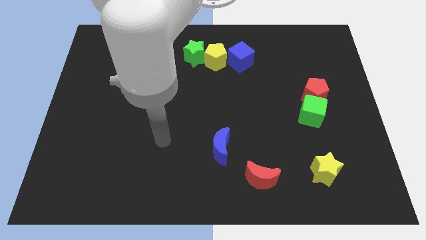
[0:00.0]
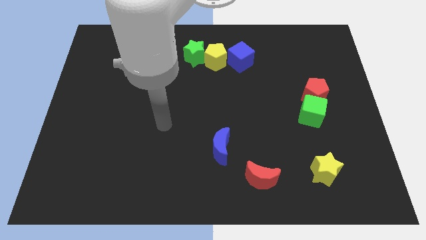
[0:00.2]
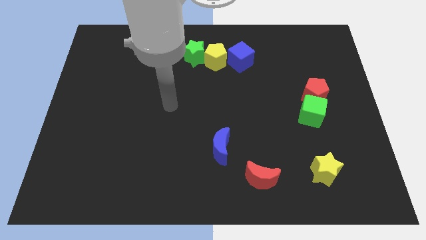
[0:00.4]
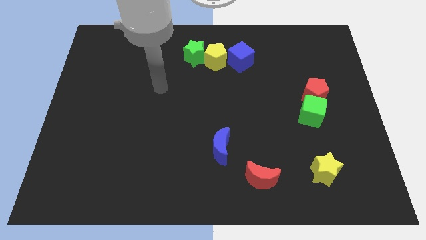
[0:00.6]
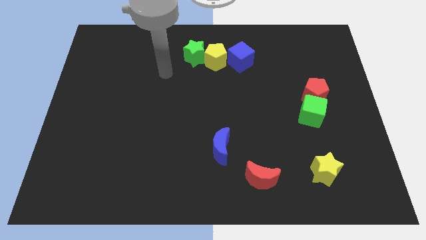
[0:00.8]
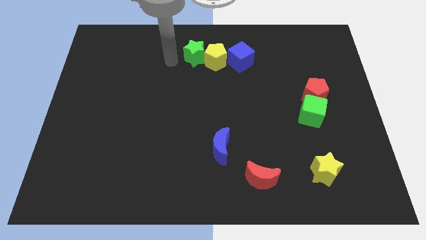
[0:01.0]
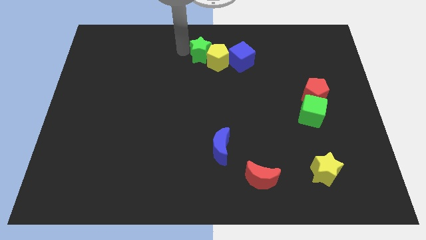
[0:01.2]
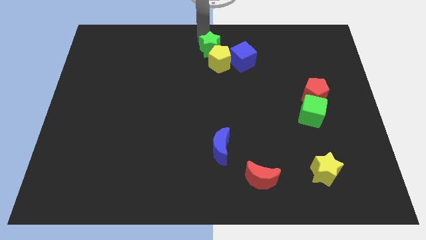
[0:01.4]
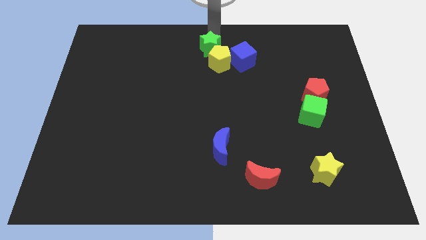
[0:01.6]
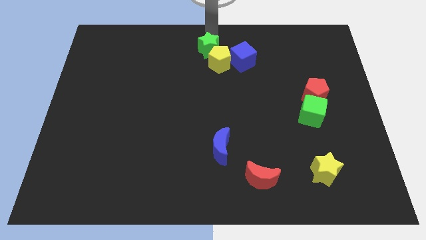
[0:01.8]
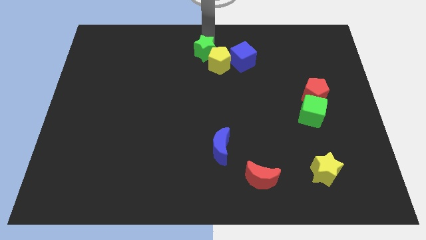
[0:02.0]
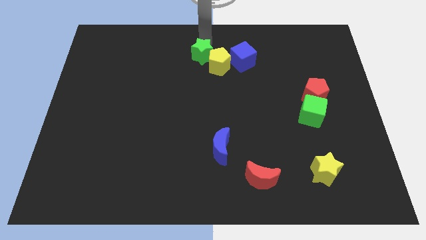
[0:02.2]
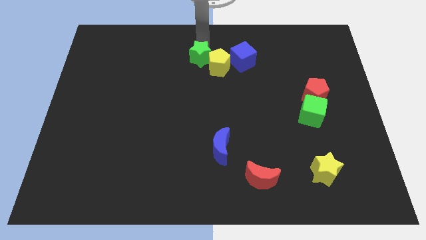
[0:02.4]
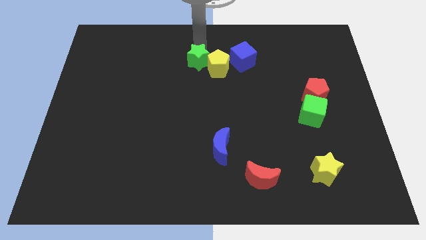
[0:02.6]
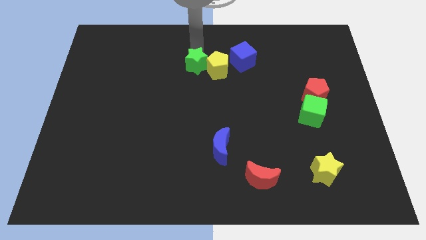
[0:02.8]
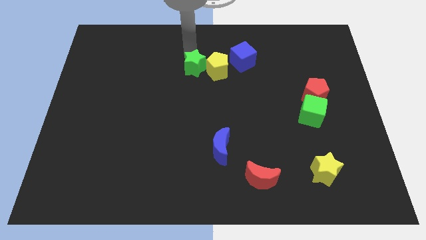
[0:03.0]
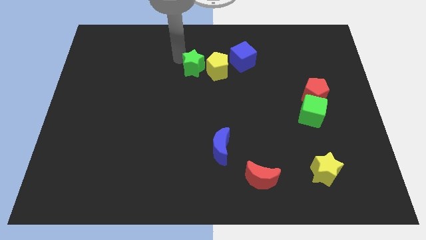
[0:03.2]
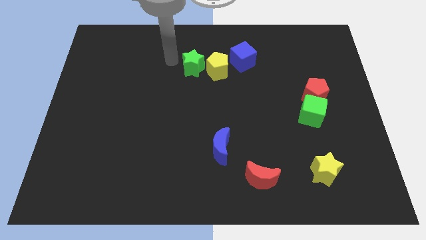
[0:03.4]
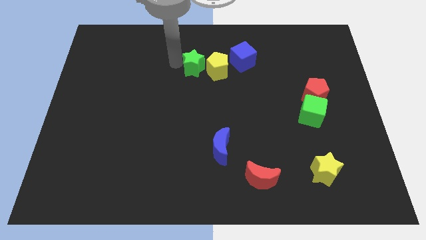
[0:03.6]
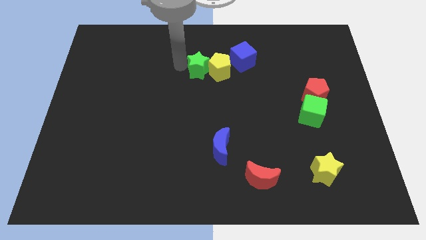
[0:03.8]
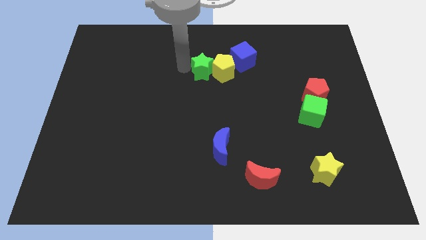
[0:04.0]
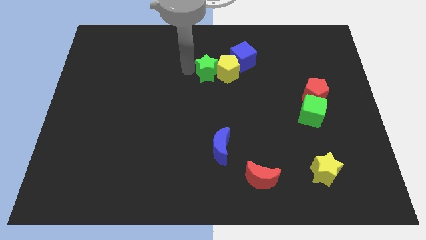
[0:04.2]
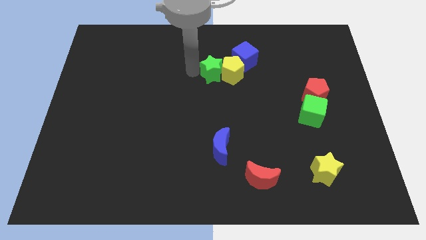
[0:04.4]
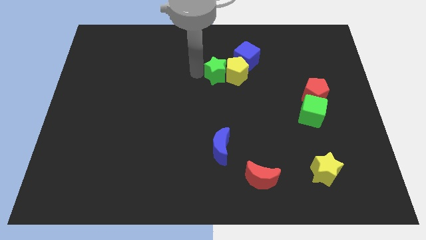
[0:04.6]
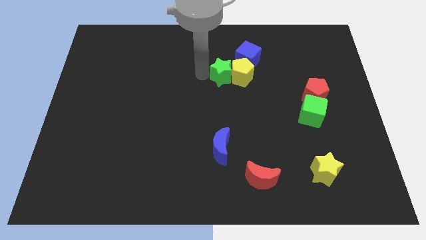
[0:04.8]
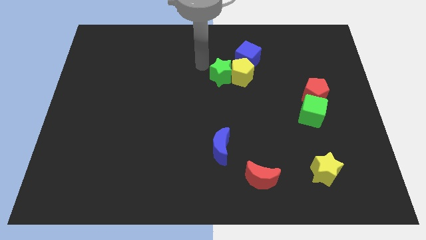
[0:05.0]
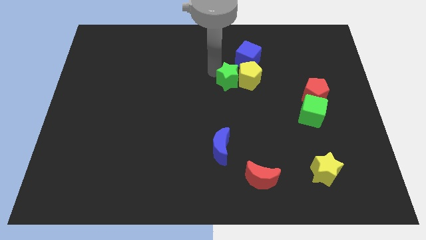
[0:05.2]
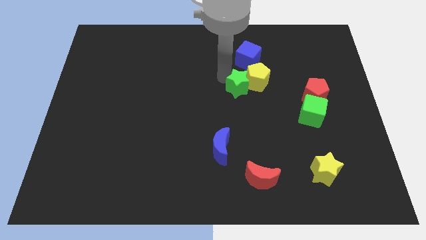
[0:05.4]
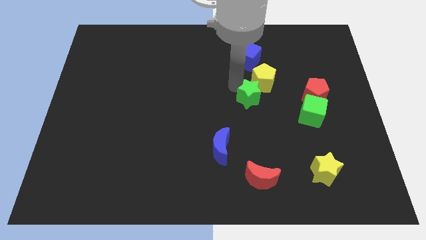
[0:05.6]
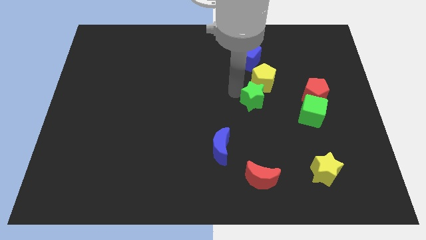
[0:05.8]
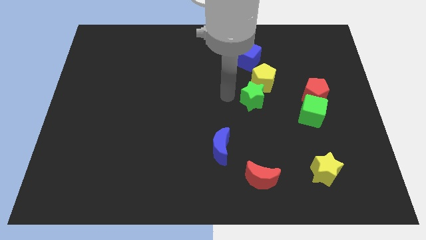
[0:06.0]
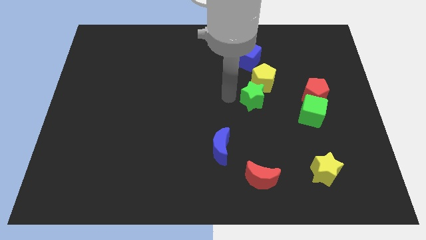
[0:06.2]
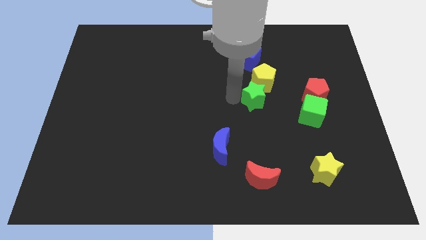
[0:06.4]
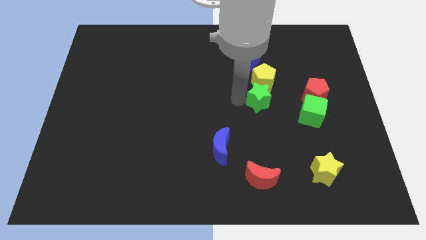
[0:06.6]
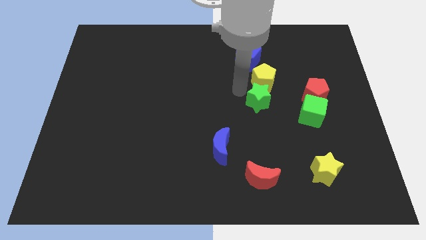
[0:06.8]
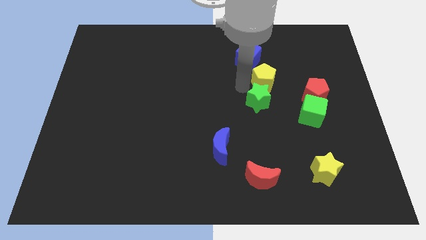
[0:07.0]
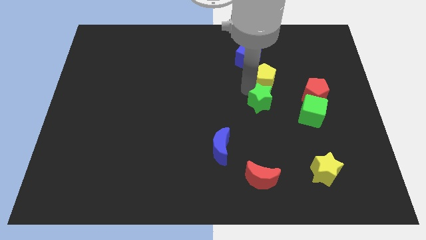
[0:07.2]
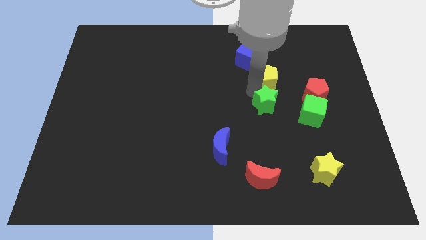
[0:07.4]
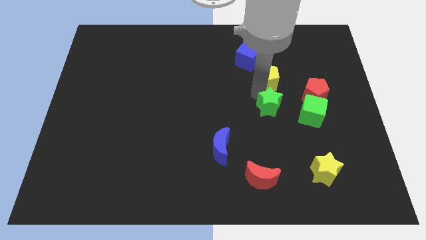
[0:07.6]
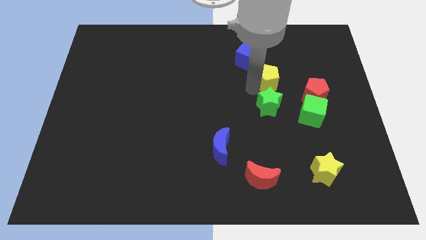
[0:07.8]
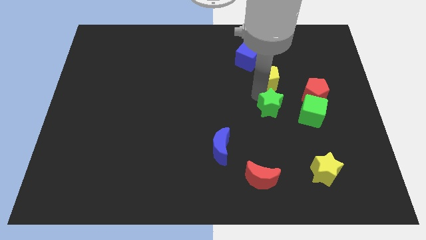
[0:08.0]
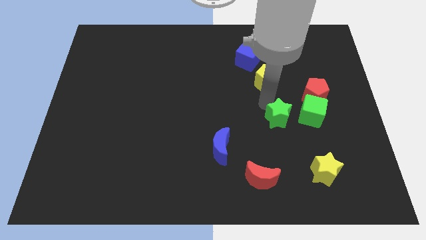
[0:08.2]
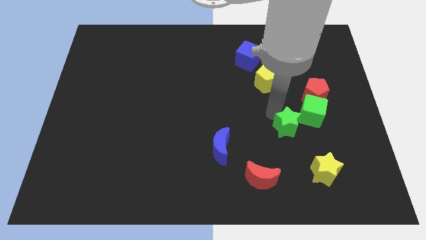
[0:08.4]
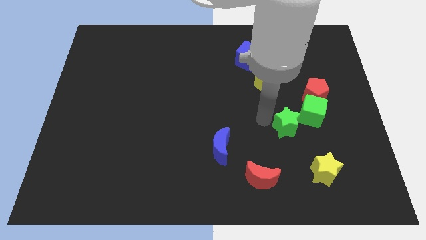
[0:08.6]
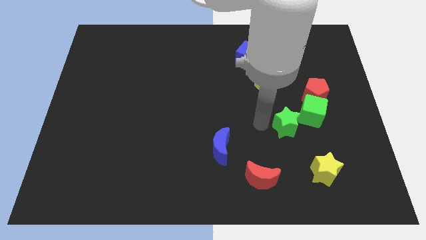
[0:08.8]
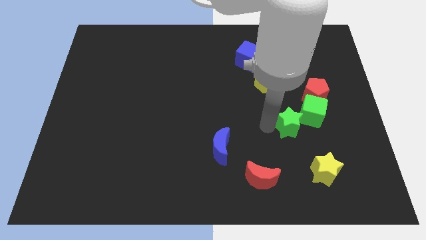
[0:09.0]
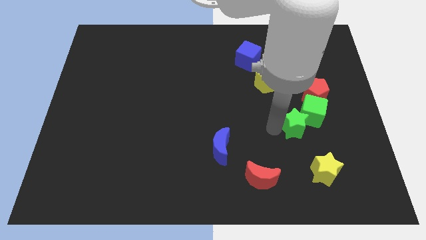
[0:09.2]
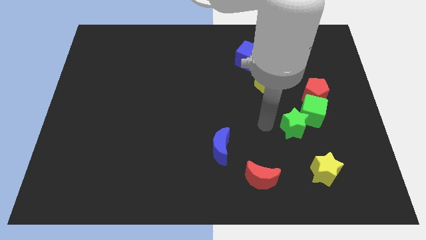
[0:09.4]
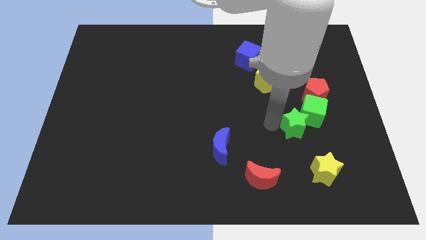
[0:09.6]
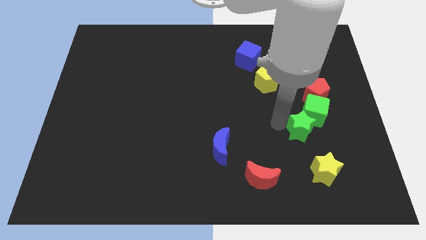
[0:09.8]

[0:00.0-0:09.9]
slide the green star below the red pentagon

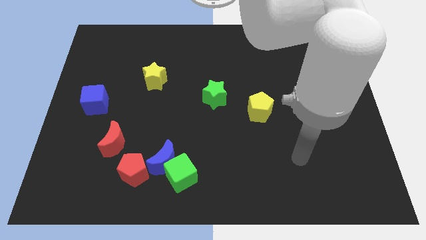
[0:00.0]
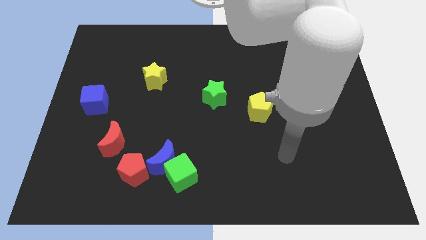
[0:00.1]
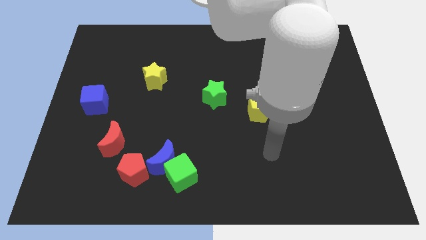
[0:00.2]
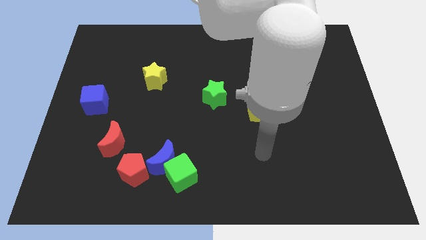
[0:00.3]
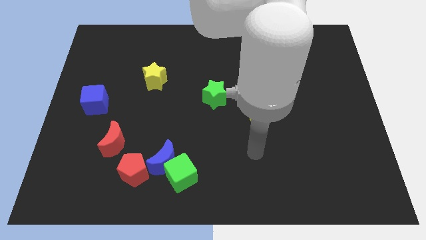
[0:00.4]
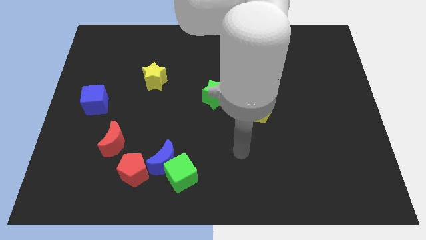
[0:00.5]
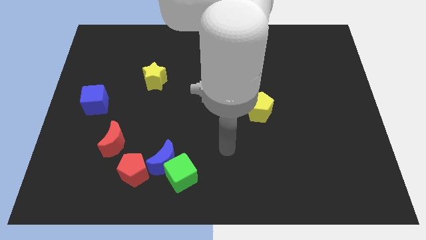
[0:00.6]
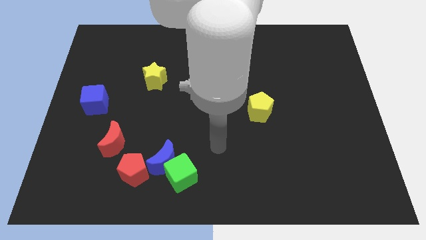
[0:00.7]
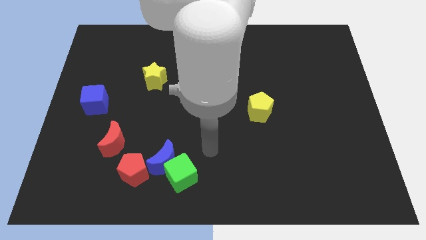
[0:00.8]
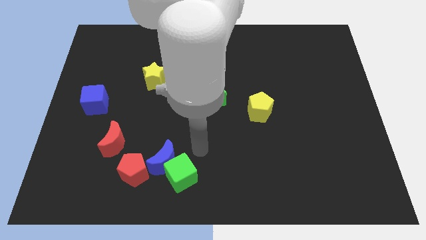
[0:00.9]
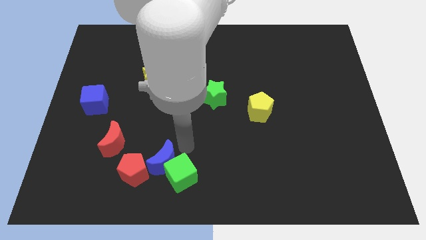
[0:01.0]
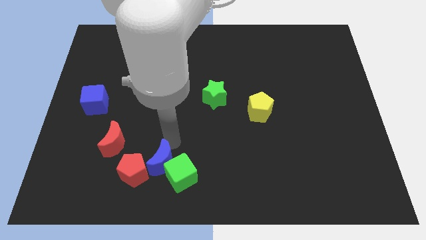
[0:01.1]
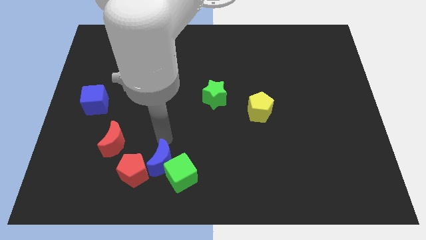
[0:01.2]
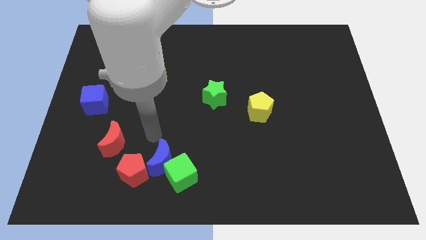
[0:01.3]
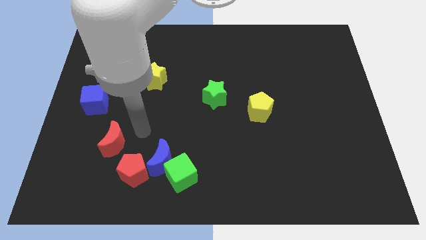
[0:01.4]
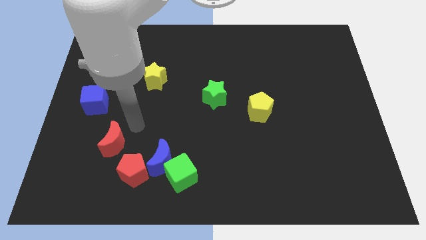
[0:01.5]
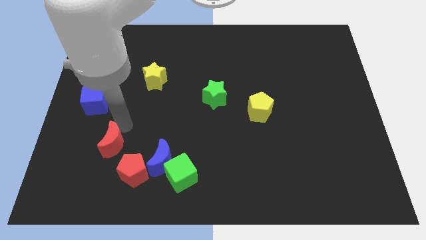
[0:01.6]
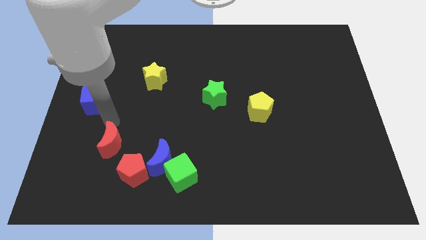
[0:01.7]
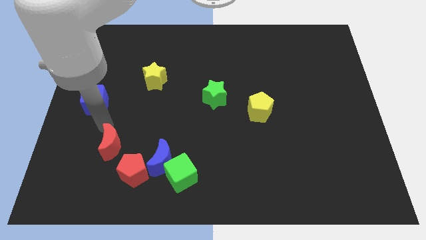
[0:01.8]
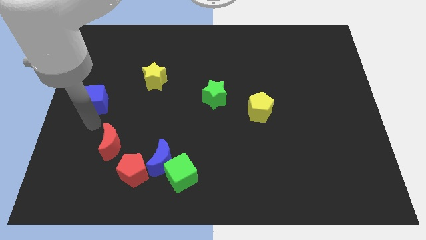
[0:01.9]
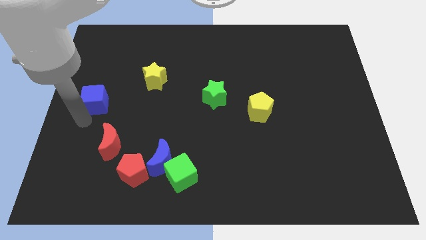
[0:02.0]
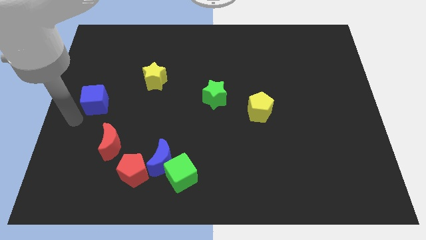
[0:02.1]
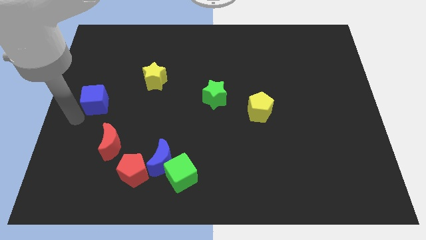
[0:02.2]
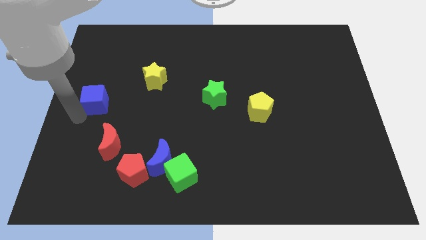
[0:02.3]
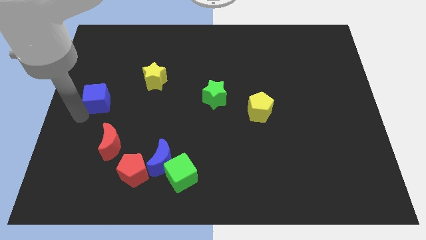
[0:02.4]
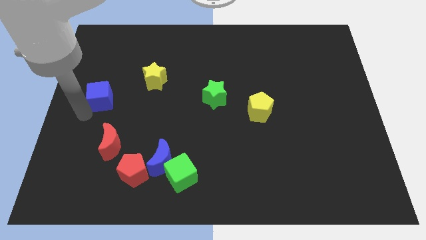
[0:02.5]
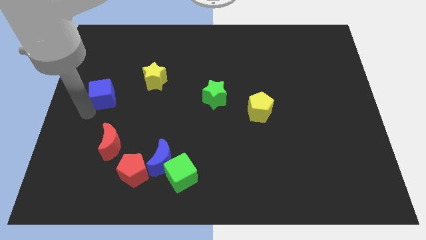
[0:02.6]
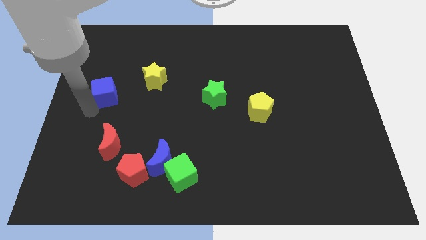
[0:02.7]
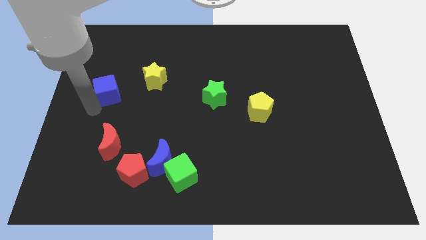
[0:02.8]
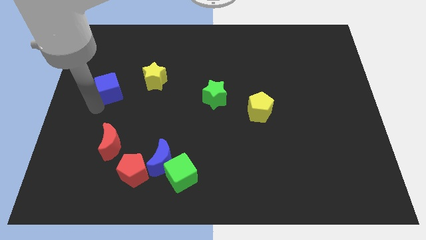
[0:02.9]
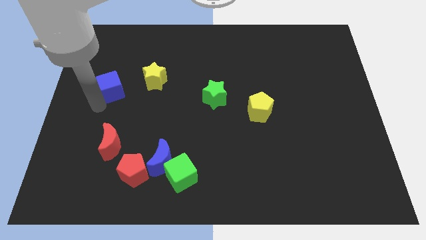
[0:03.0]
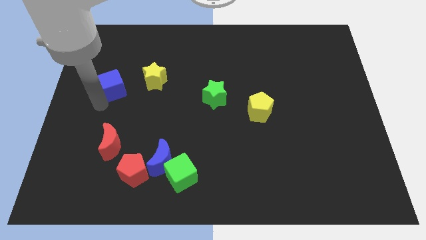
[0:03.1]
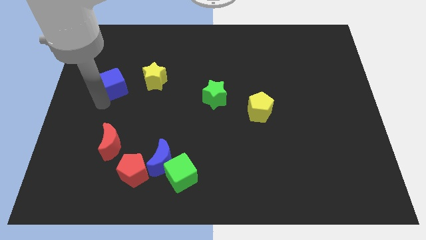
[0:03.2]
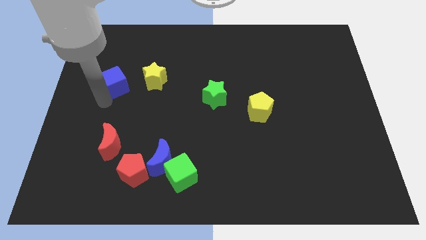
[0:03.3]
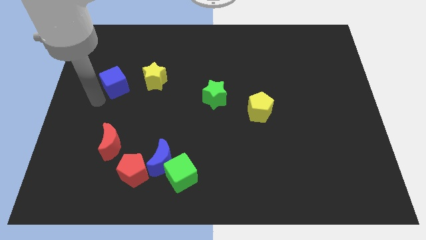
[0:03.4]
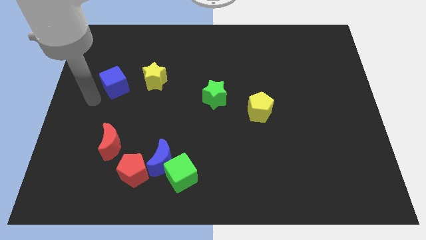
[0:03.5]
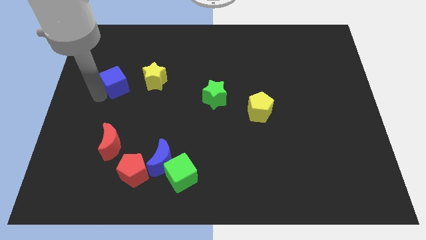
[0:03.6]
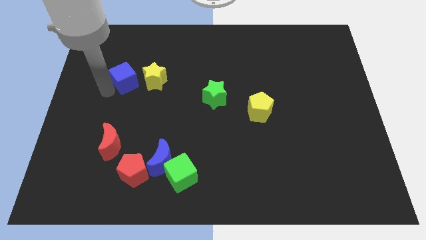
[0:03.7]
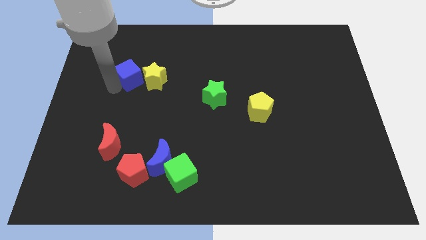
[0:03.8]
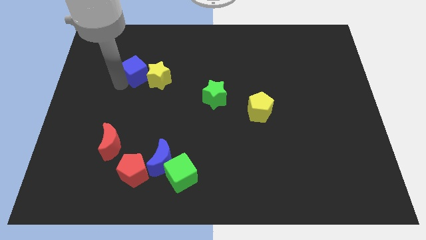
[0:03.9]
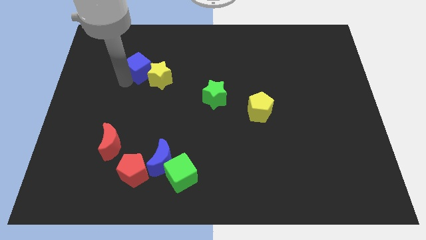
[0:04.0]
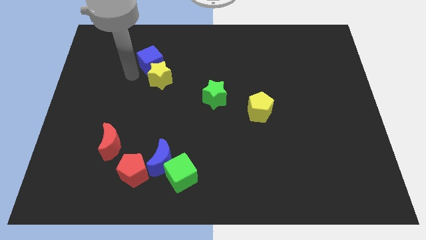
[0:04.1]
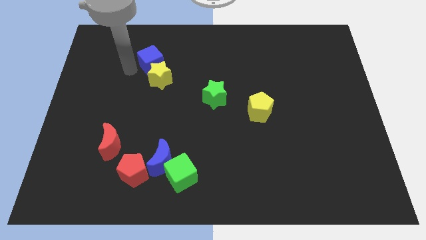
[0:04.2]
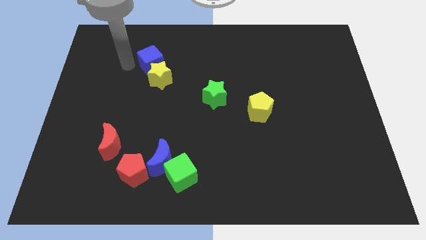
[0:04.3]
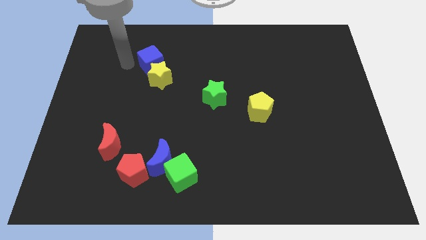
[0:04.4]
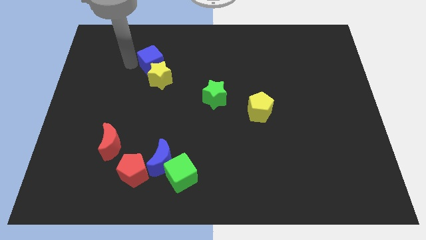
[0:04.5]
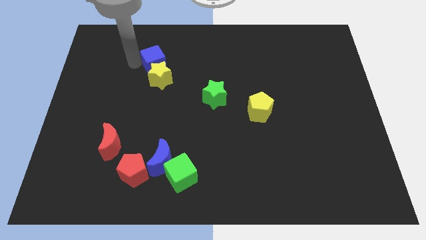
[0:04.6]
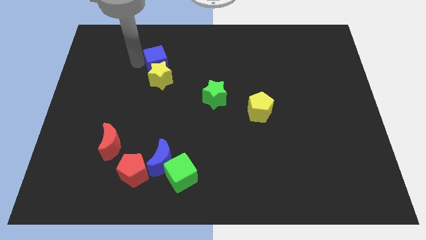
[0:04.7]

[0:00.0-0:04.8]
put the blue cube diagonally up and to the right of the yellow star
